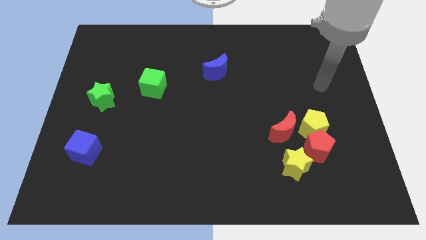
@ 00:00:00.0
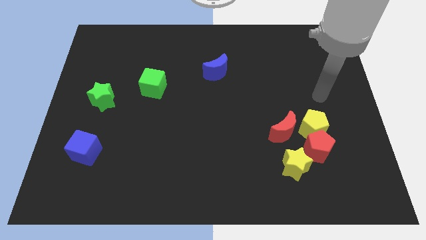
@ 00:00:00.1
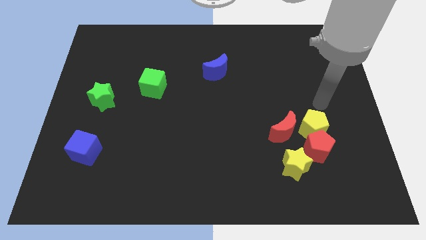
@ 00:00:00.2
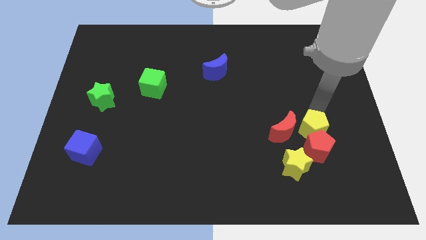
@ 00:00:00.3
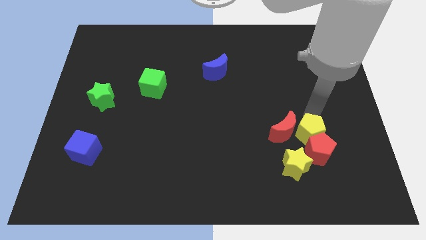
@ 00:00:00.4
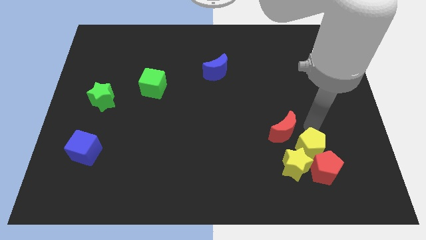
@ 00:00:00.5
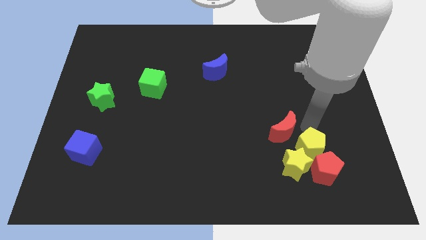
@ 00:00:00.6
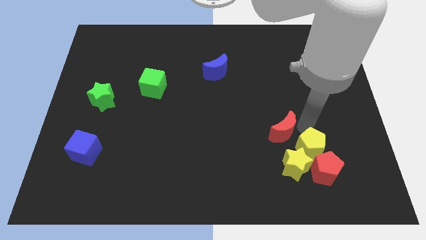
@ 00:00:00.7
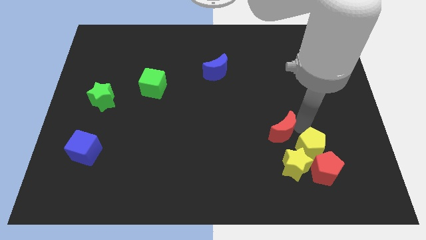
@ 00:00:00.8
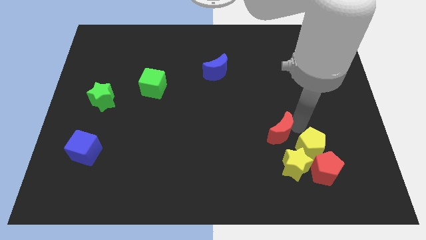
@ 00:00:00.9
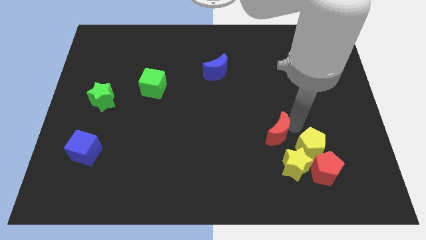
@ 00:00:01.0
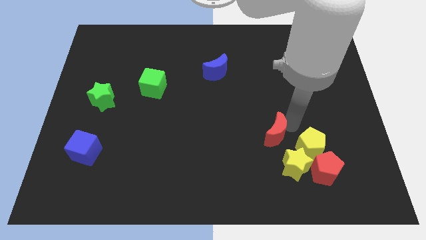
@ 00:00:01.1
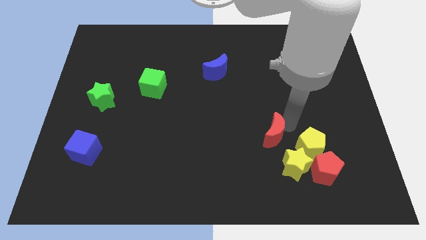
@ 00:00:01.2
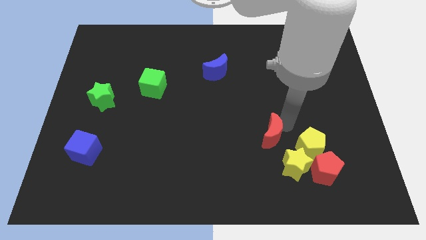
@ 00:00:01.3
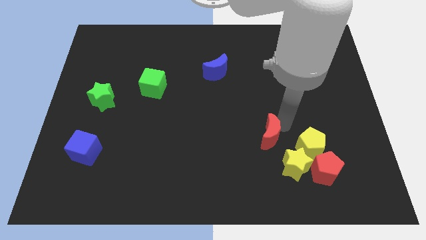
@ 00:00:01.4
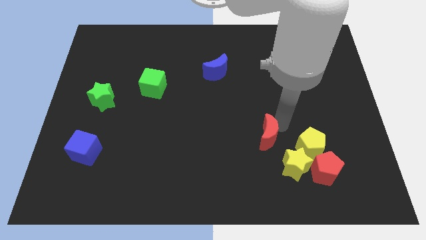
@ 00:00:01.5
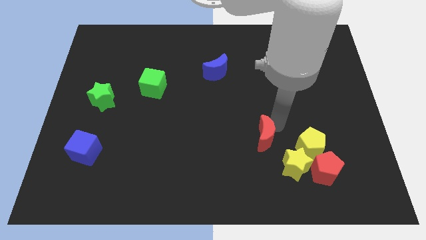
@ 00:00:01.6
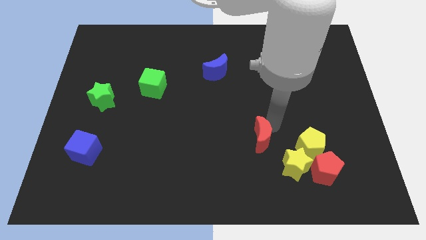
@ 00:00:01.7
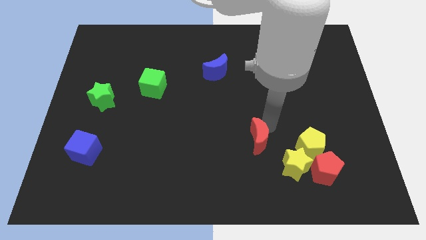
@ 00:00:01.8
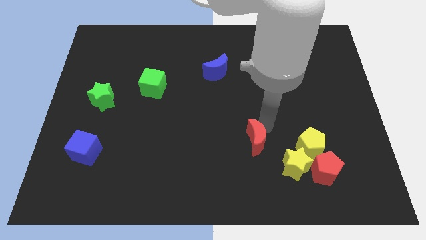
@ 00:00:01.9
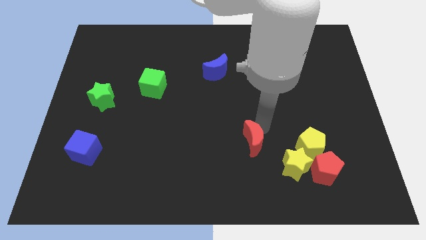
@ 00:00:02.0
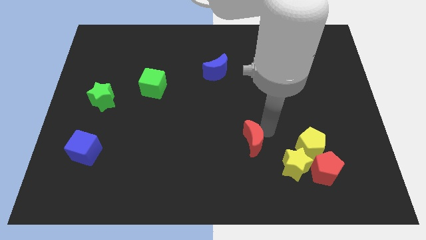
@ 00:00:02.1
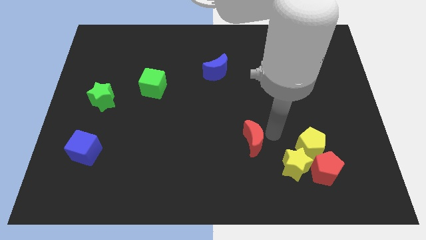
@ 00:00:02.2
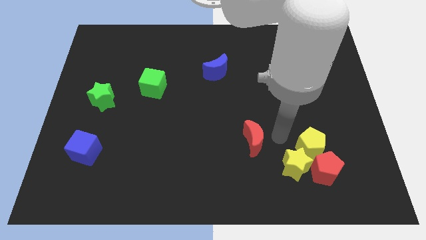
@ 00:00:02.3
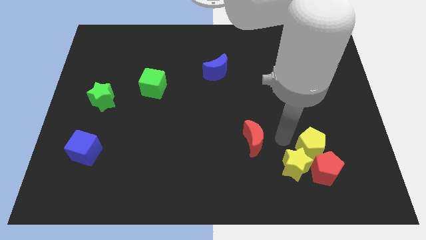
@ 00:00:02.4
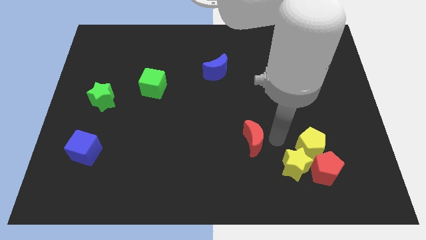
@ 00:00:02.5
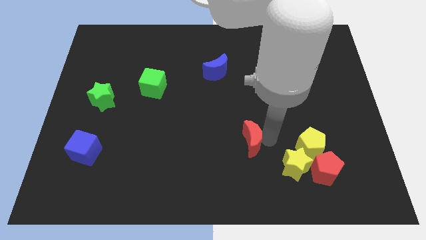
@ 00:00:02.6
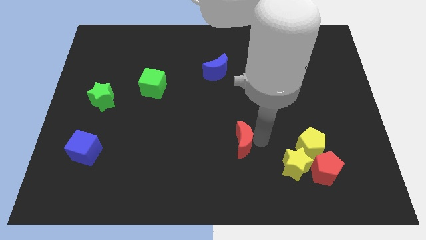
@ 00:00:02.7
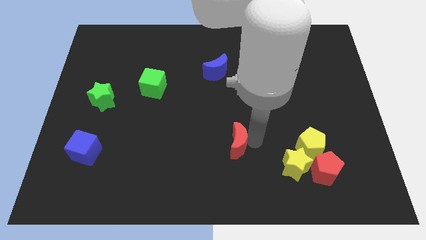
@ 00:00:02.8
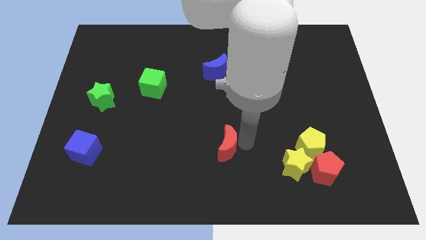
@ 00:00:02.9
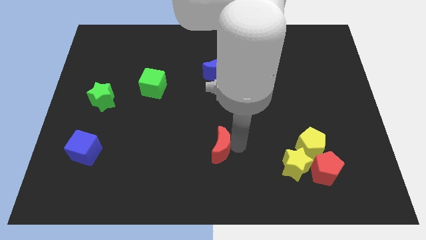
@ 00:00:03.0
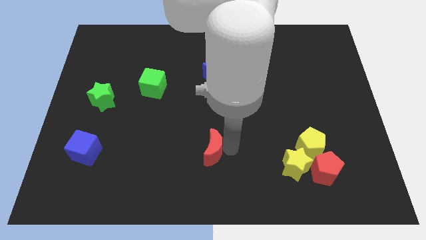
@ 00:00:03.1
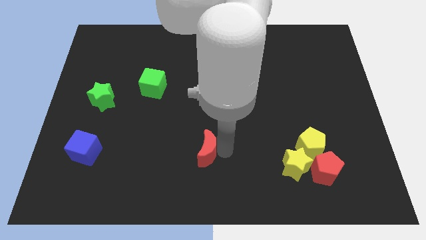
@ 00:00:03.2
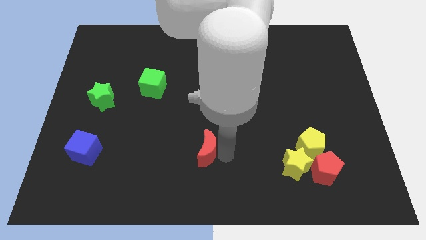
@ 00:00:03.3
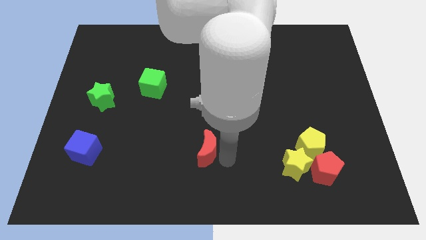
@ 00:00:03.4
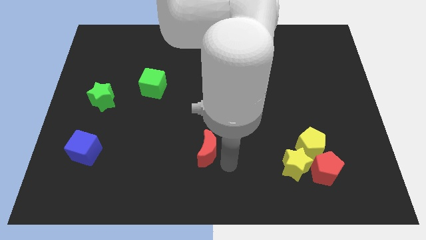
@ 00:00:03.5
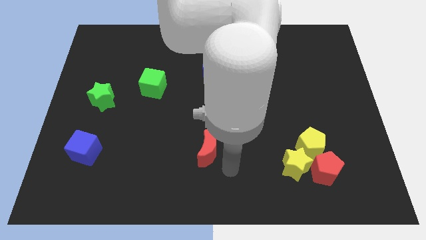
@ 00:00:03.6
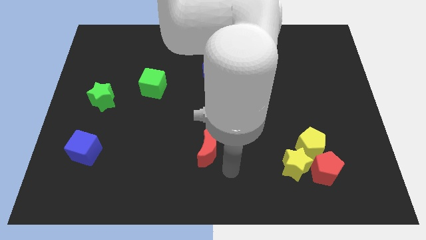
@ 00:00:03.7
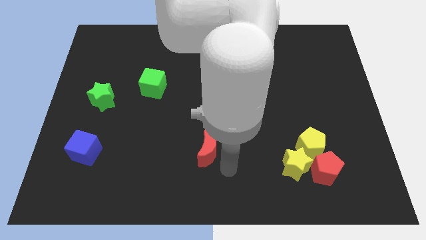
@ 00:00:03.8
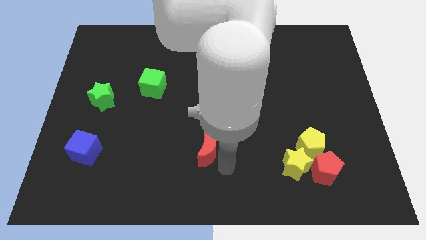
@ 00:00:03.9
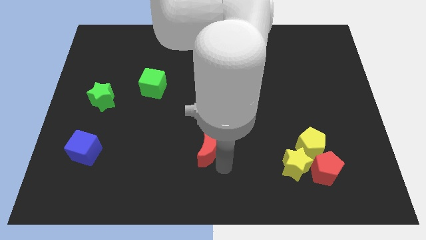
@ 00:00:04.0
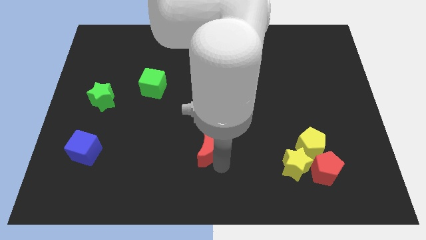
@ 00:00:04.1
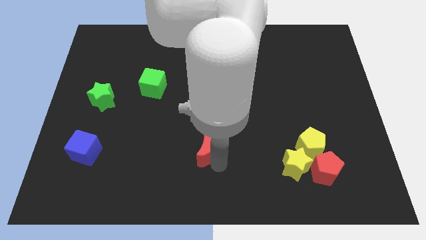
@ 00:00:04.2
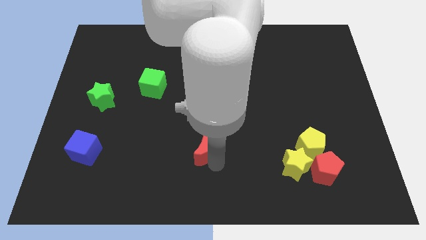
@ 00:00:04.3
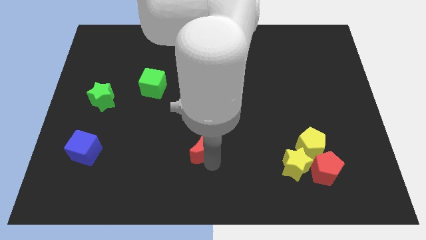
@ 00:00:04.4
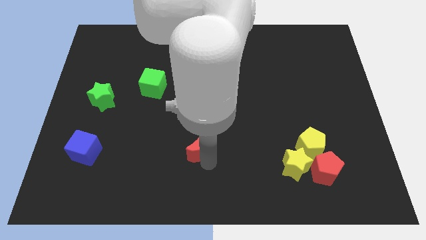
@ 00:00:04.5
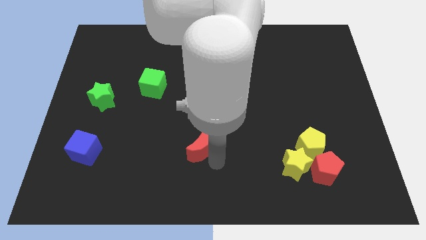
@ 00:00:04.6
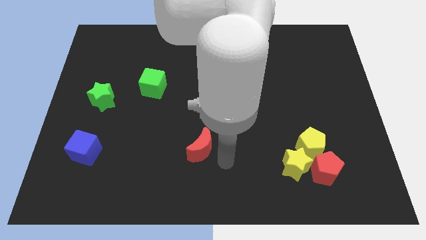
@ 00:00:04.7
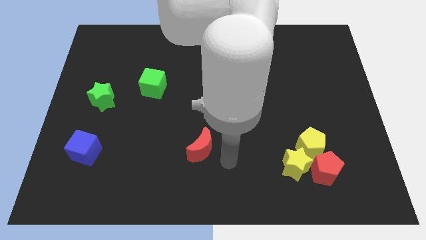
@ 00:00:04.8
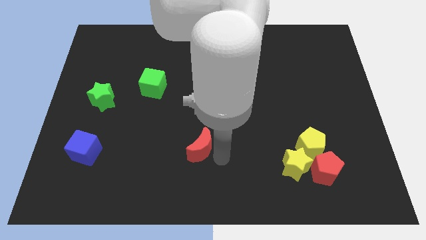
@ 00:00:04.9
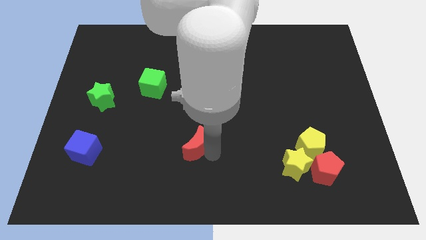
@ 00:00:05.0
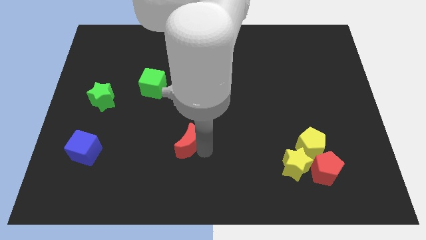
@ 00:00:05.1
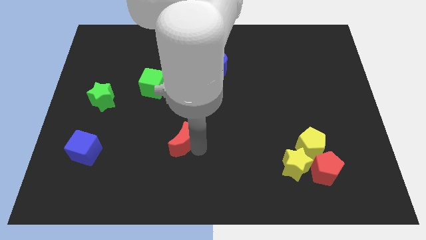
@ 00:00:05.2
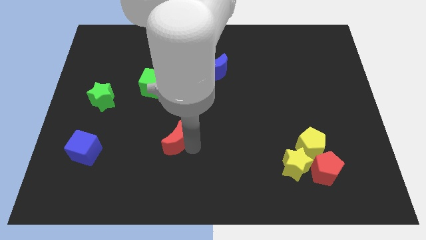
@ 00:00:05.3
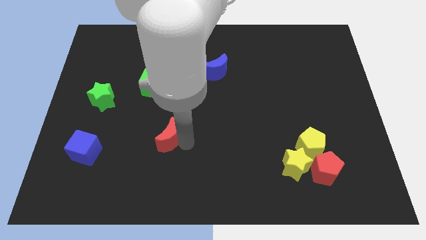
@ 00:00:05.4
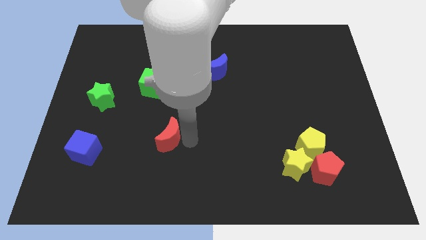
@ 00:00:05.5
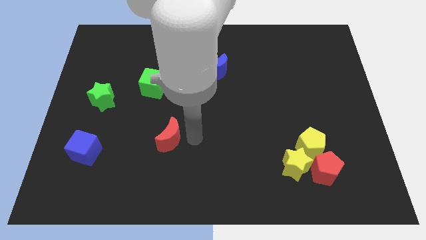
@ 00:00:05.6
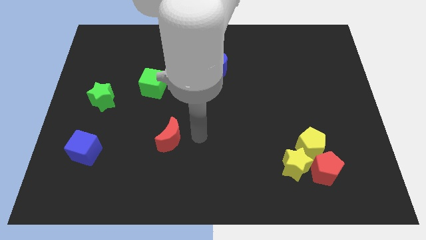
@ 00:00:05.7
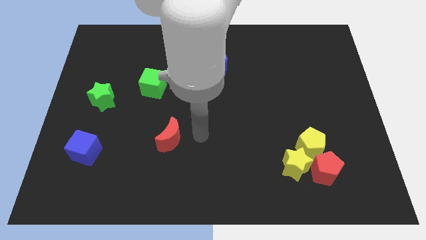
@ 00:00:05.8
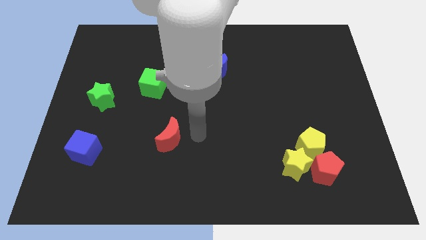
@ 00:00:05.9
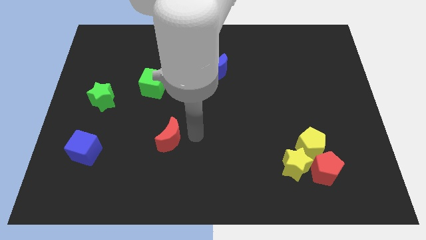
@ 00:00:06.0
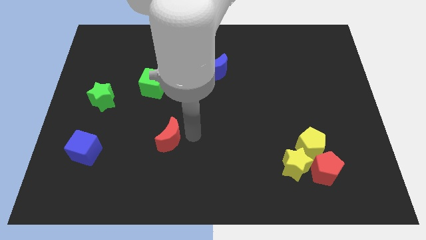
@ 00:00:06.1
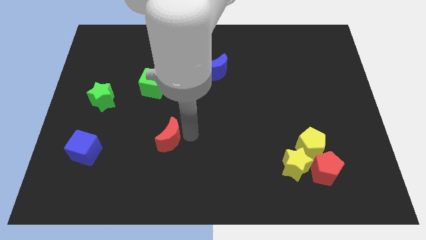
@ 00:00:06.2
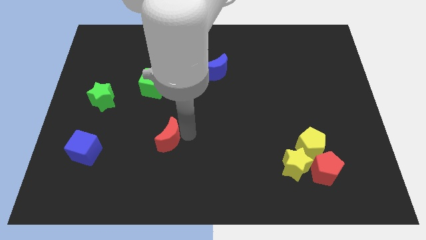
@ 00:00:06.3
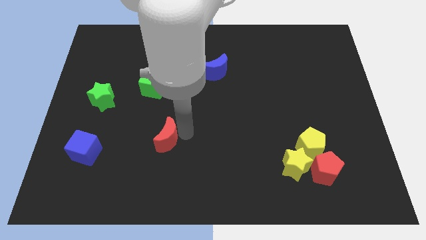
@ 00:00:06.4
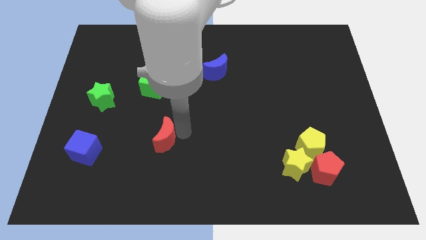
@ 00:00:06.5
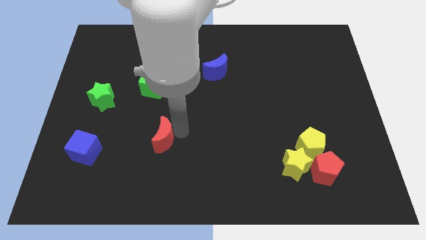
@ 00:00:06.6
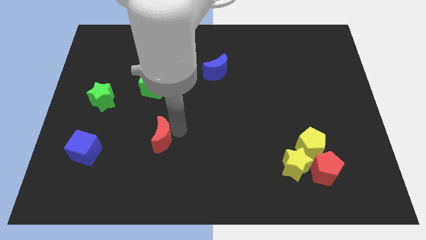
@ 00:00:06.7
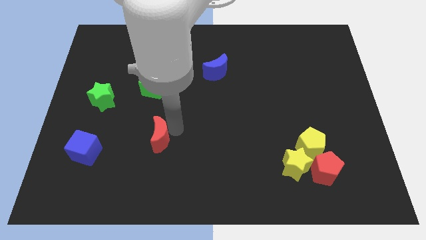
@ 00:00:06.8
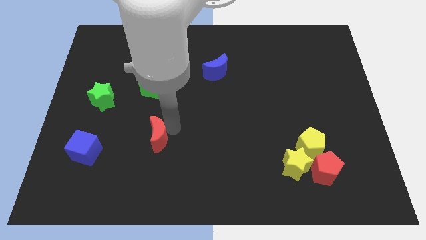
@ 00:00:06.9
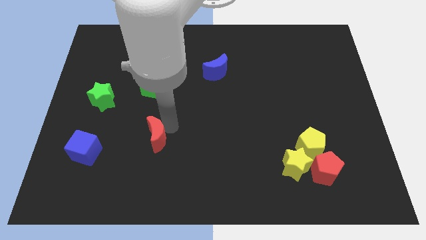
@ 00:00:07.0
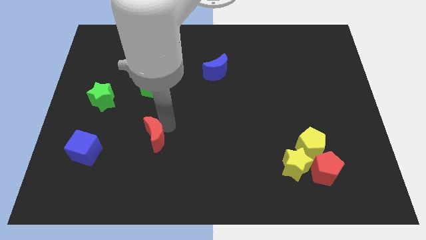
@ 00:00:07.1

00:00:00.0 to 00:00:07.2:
push the red moon to the right side of the blue cube
